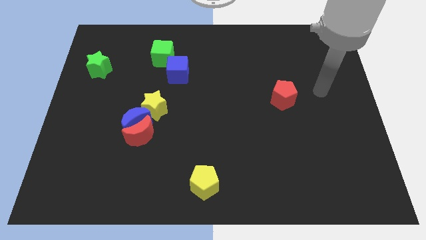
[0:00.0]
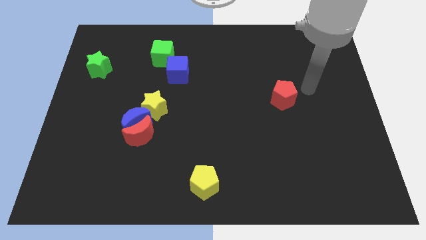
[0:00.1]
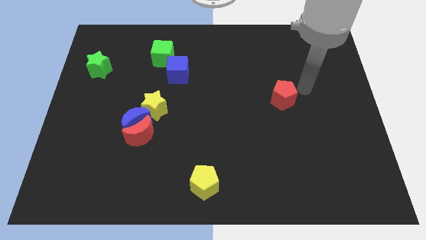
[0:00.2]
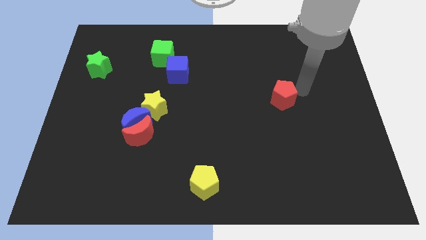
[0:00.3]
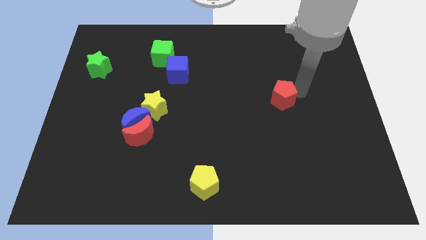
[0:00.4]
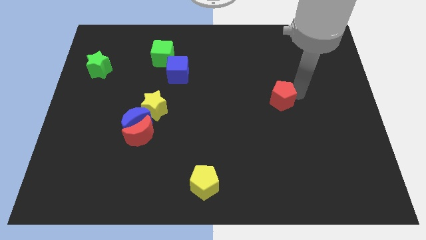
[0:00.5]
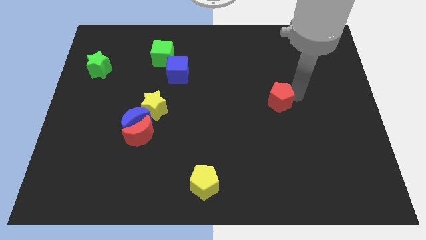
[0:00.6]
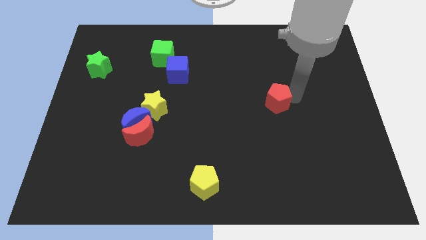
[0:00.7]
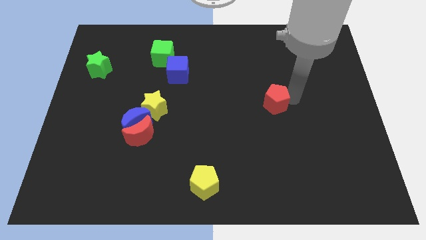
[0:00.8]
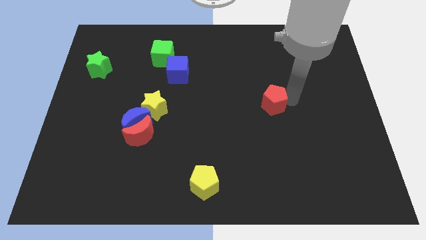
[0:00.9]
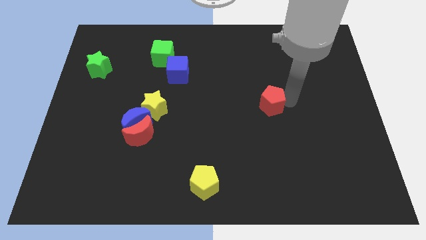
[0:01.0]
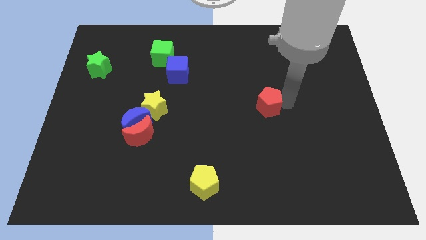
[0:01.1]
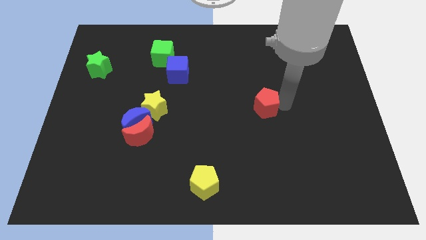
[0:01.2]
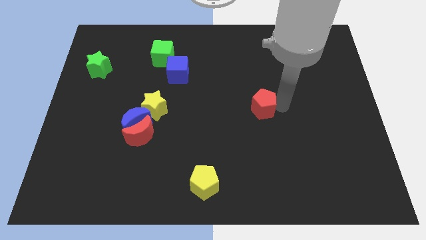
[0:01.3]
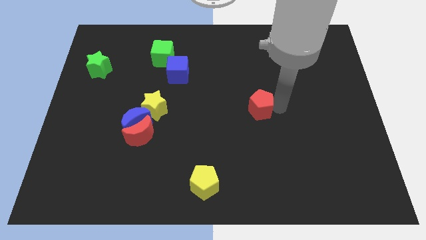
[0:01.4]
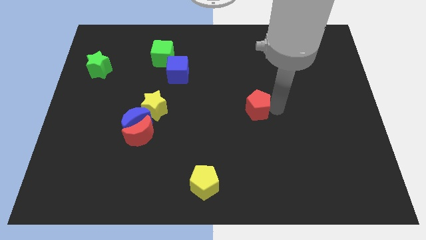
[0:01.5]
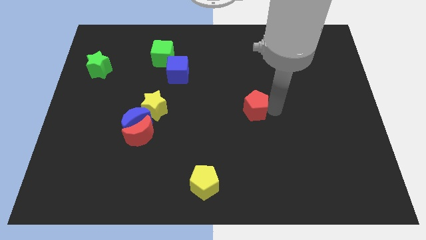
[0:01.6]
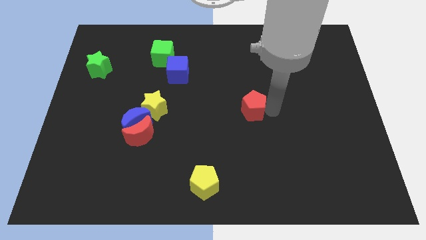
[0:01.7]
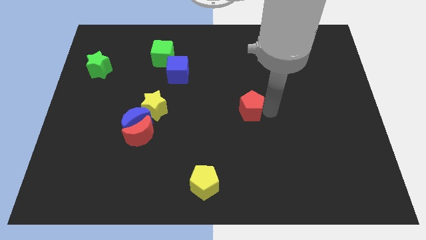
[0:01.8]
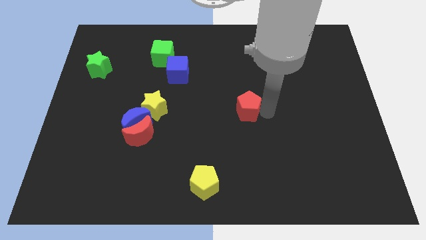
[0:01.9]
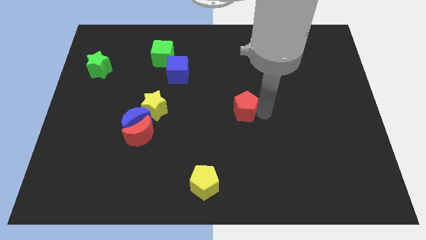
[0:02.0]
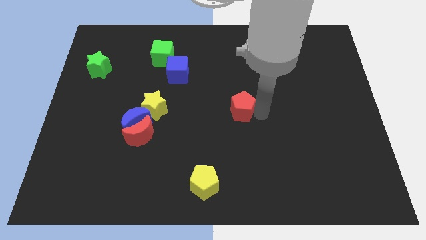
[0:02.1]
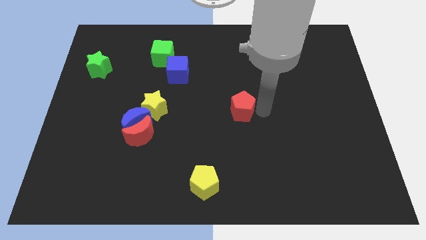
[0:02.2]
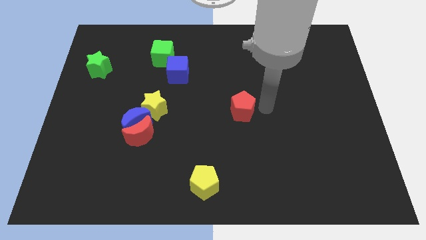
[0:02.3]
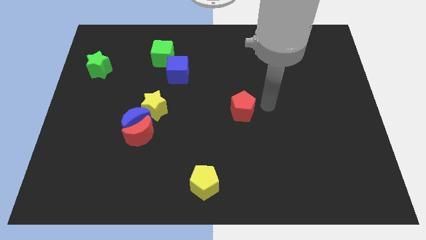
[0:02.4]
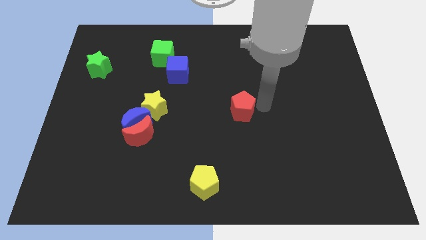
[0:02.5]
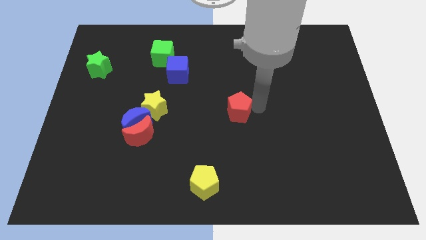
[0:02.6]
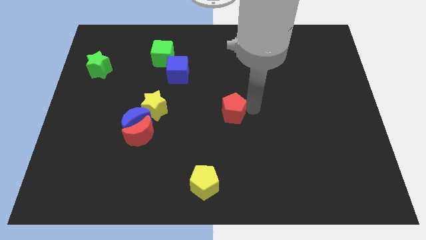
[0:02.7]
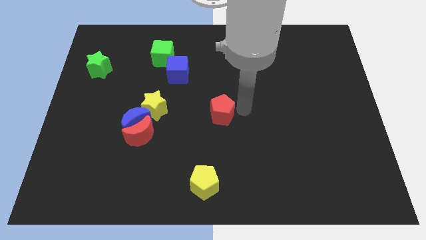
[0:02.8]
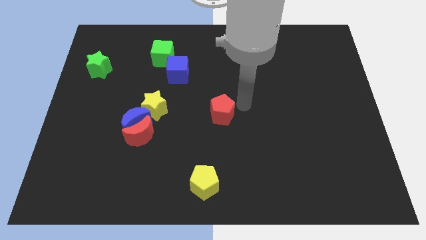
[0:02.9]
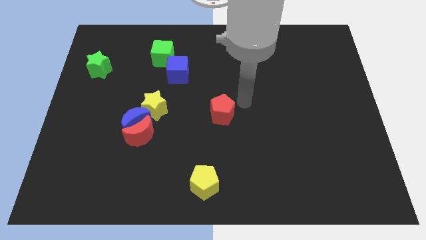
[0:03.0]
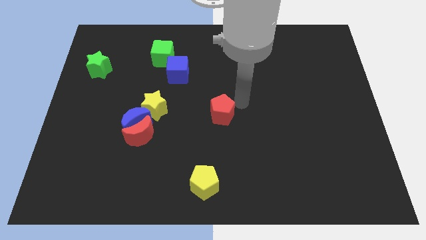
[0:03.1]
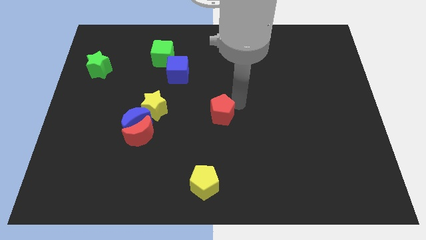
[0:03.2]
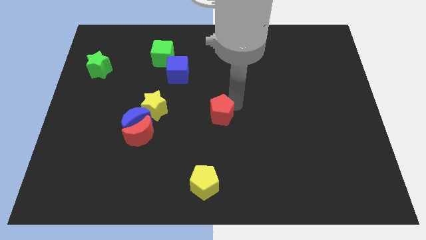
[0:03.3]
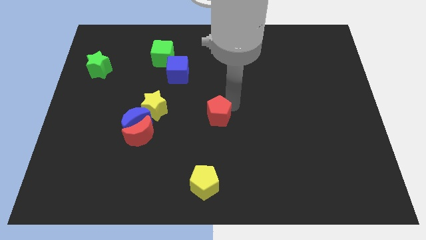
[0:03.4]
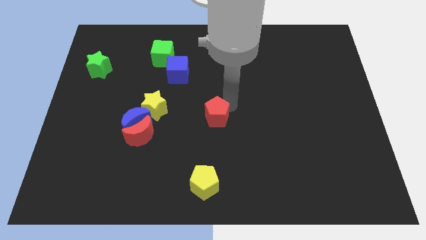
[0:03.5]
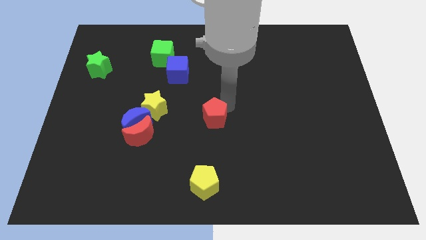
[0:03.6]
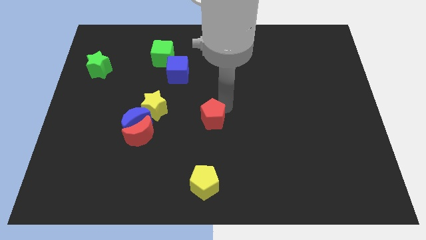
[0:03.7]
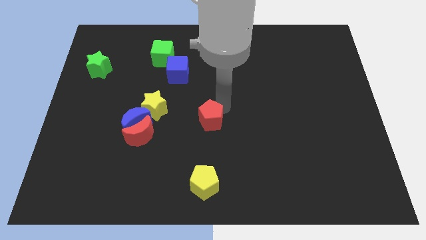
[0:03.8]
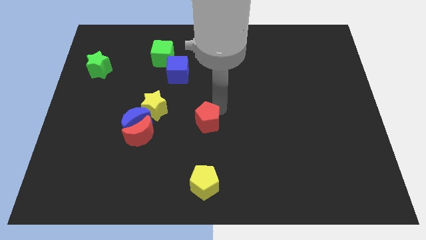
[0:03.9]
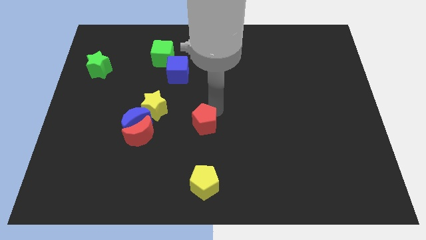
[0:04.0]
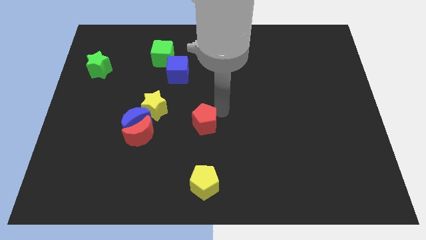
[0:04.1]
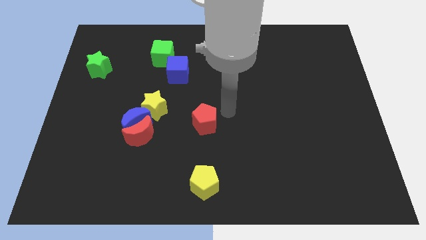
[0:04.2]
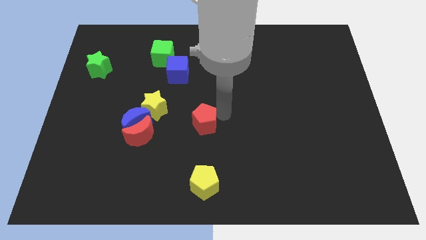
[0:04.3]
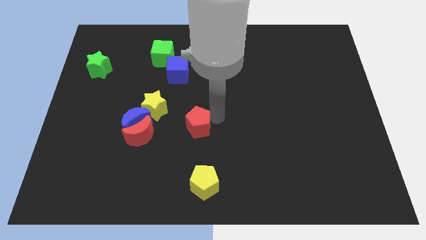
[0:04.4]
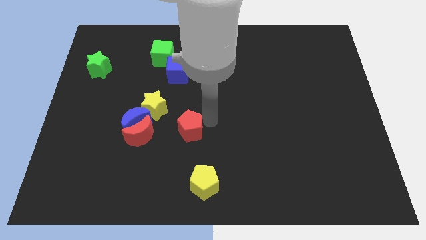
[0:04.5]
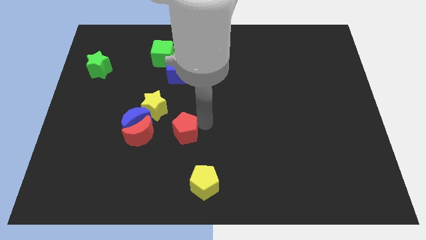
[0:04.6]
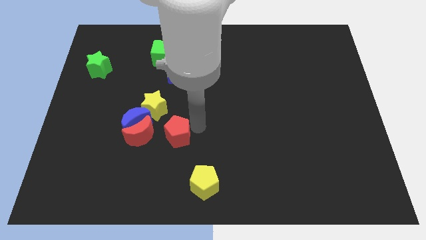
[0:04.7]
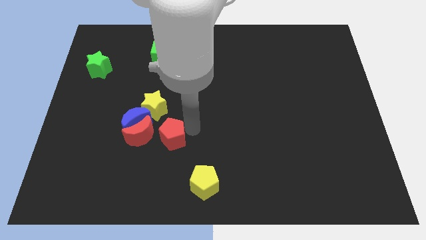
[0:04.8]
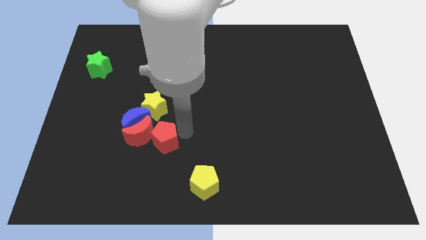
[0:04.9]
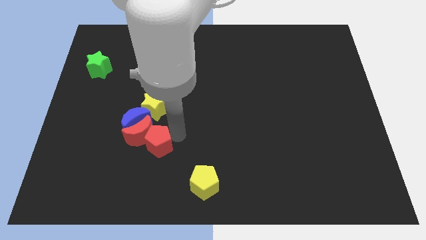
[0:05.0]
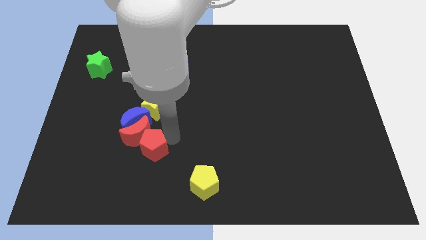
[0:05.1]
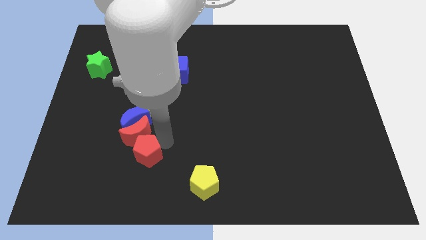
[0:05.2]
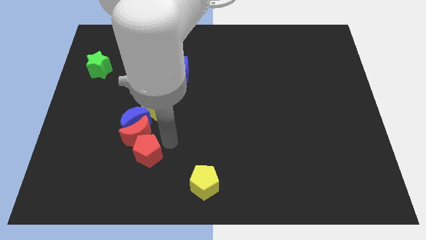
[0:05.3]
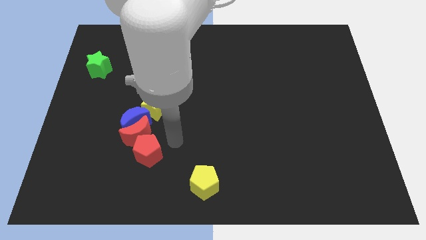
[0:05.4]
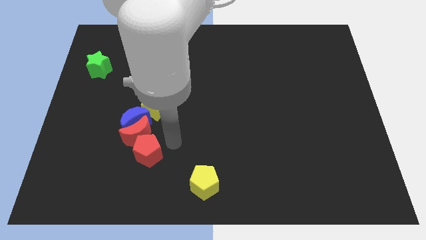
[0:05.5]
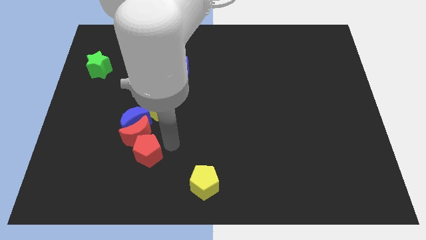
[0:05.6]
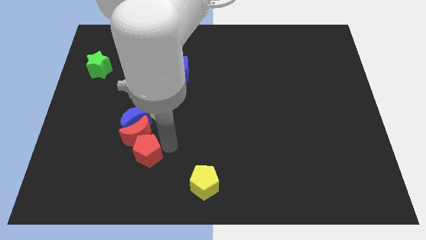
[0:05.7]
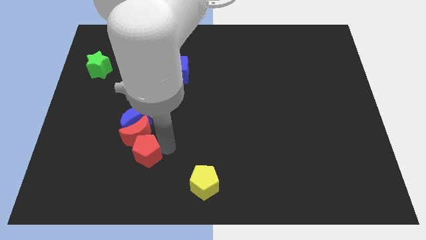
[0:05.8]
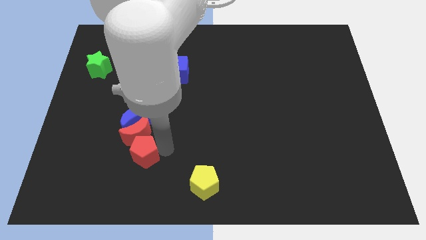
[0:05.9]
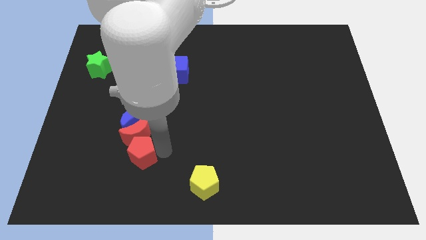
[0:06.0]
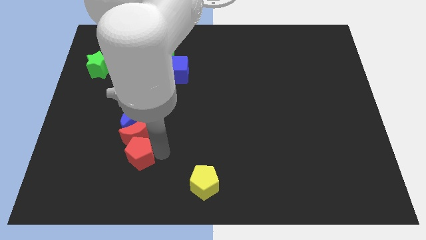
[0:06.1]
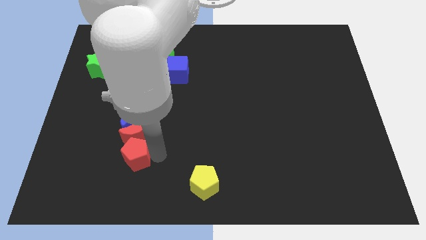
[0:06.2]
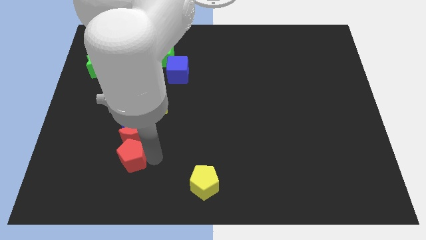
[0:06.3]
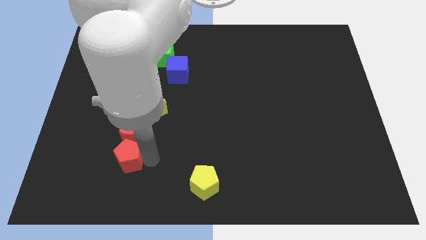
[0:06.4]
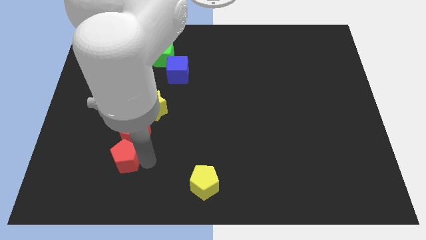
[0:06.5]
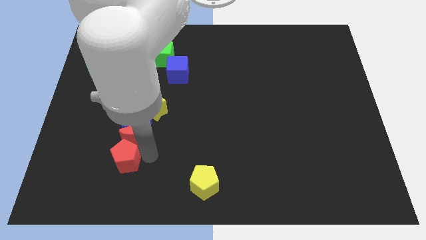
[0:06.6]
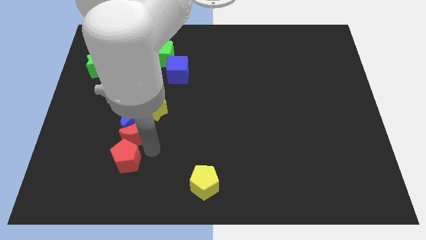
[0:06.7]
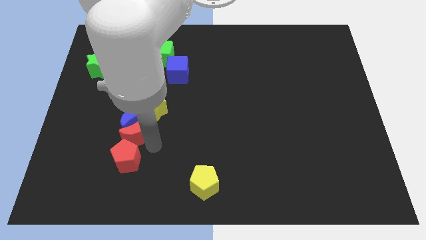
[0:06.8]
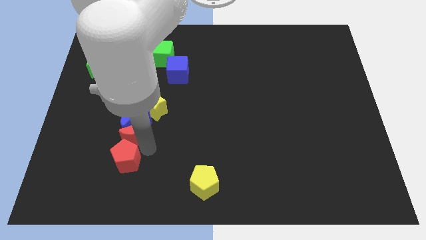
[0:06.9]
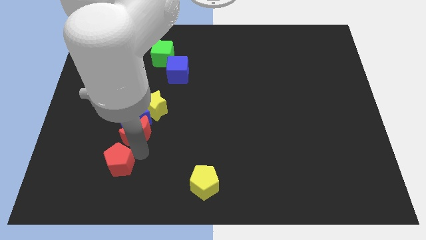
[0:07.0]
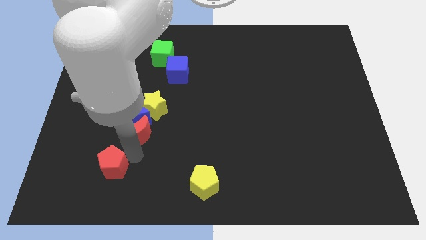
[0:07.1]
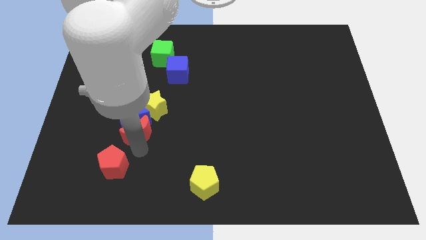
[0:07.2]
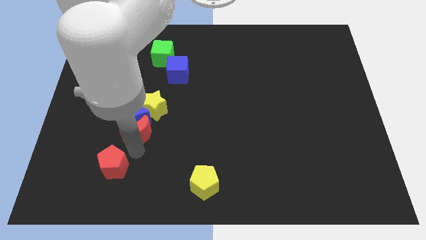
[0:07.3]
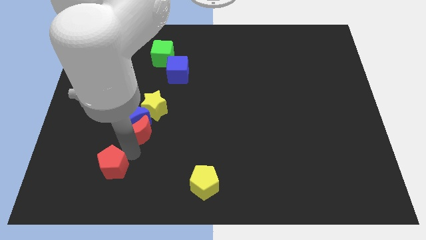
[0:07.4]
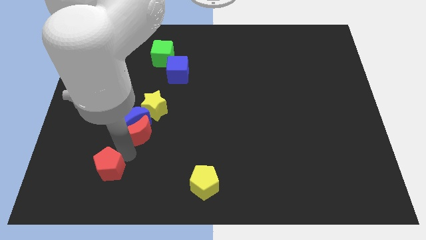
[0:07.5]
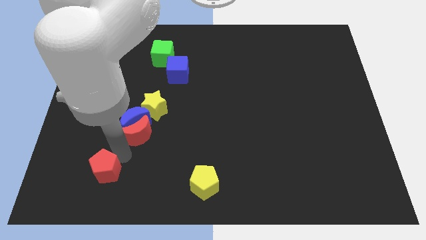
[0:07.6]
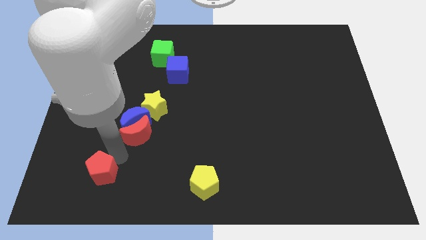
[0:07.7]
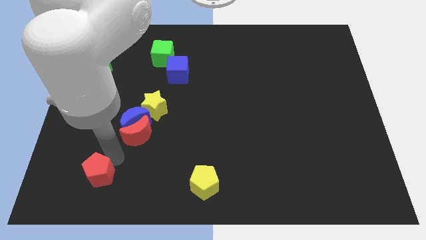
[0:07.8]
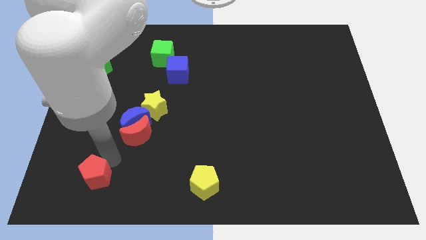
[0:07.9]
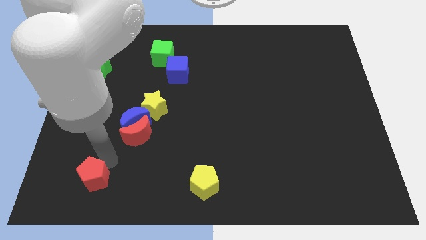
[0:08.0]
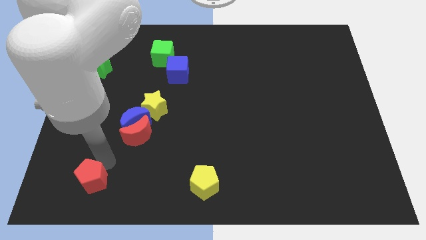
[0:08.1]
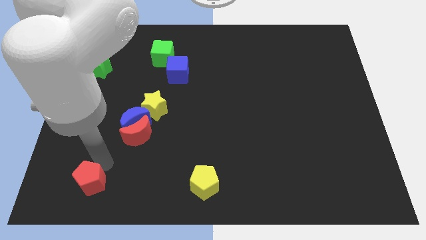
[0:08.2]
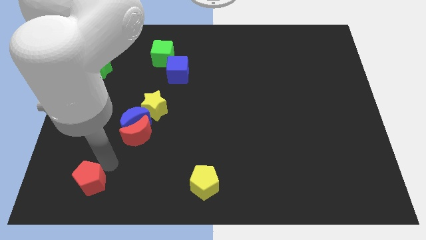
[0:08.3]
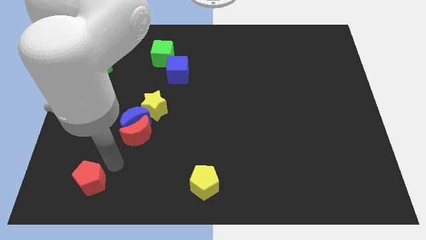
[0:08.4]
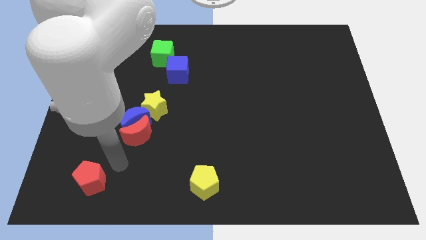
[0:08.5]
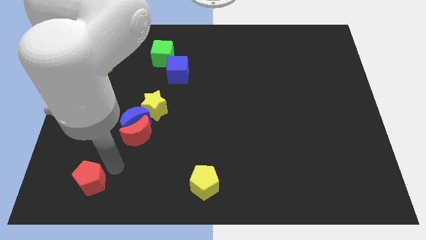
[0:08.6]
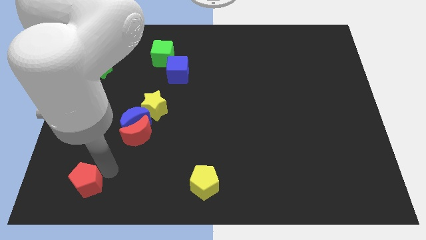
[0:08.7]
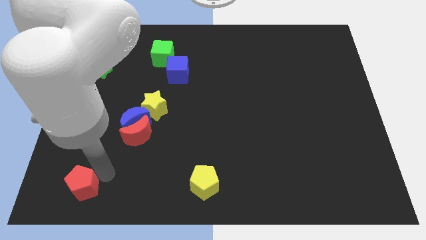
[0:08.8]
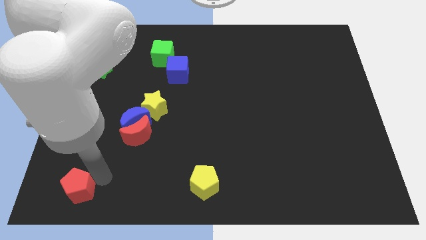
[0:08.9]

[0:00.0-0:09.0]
slide the red pentagon to the lower left corner
